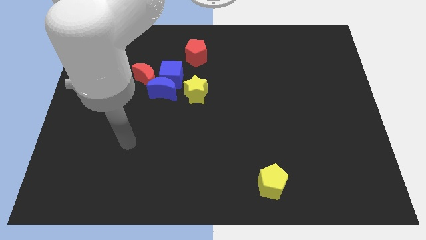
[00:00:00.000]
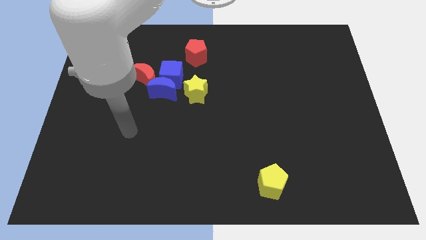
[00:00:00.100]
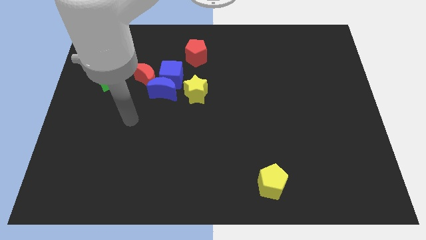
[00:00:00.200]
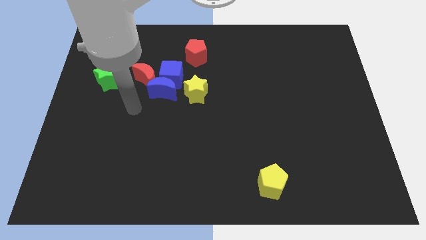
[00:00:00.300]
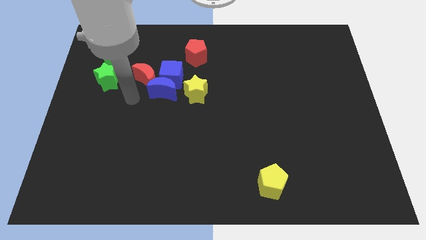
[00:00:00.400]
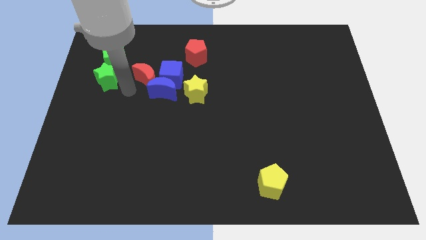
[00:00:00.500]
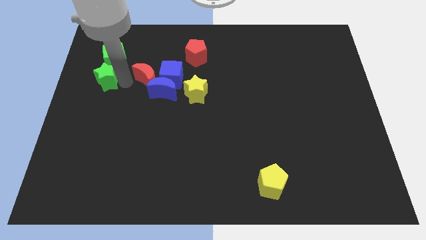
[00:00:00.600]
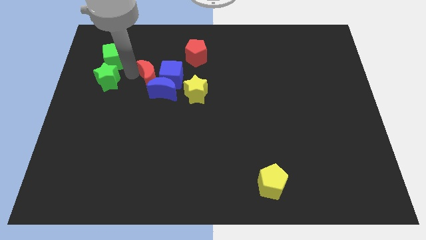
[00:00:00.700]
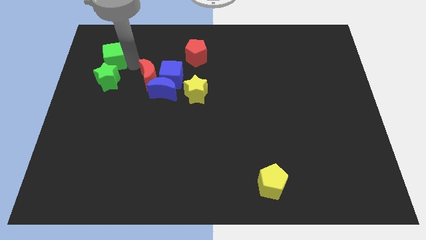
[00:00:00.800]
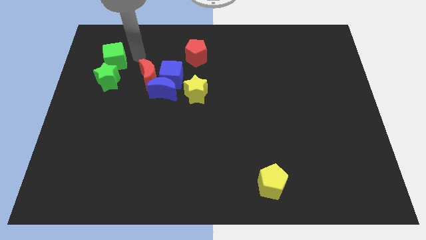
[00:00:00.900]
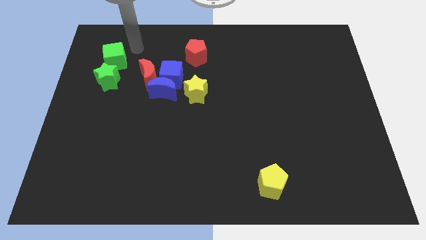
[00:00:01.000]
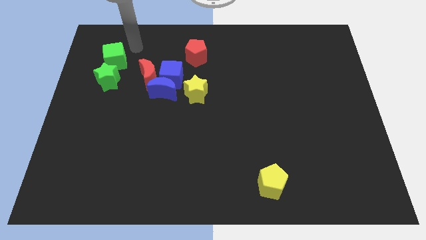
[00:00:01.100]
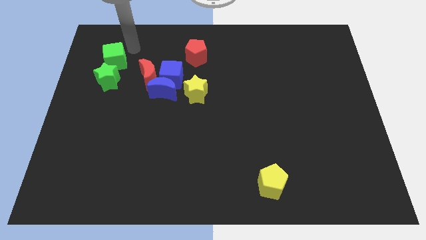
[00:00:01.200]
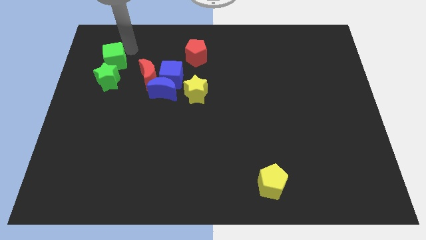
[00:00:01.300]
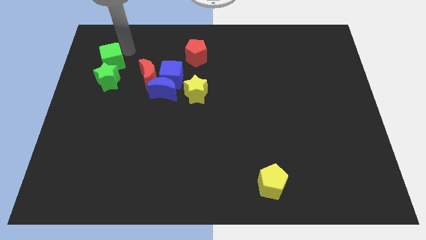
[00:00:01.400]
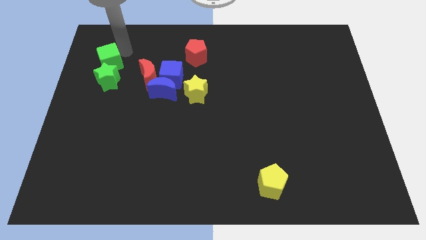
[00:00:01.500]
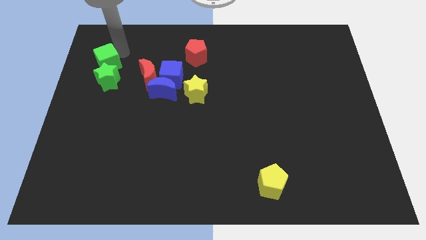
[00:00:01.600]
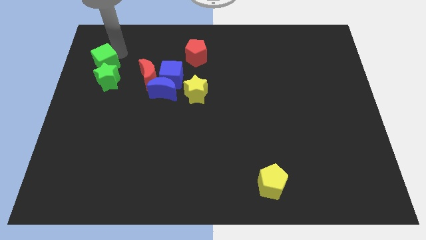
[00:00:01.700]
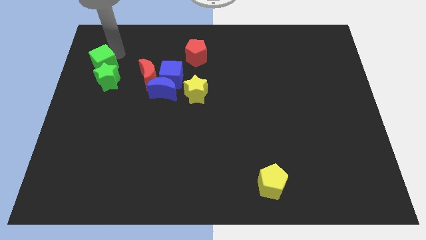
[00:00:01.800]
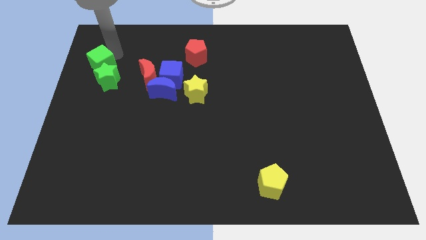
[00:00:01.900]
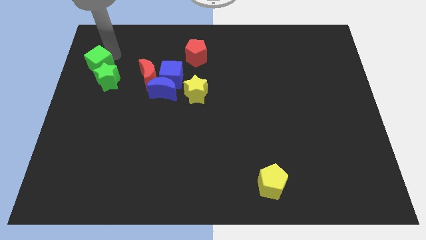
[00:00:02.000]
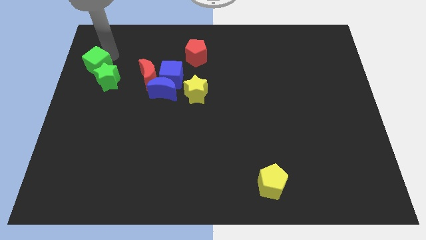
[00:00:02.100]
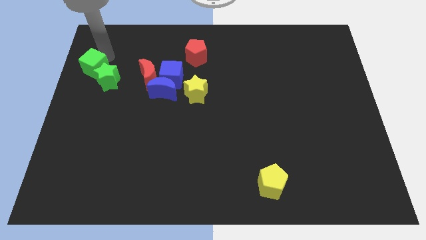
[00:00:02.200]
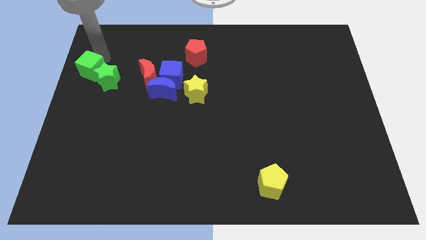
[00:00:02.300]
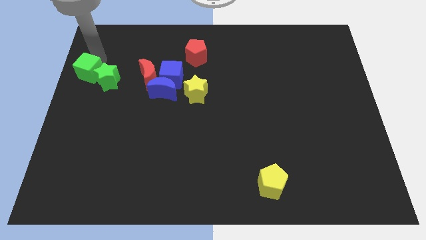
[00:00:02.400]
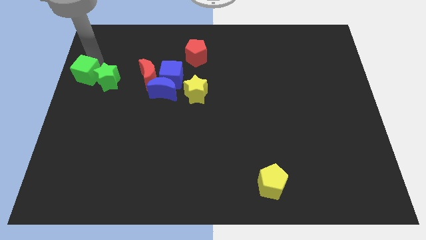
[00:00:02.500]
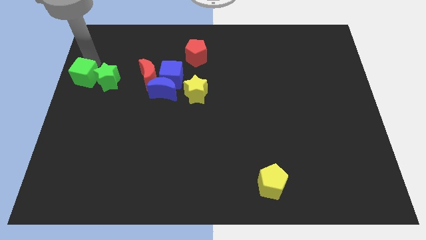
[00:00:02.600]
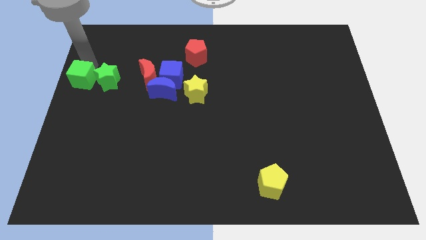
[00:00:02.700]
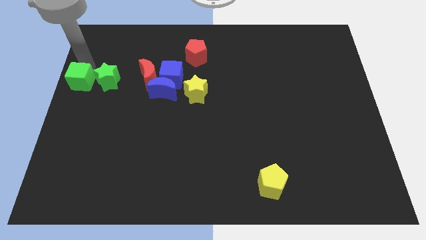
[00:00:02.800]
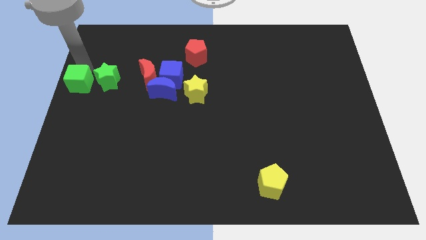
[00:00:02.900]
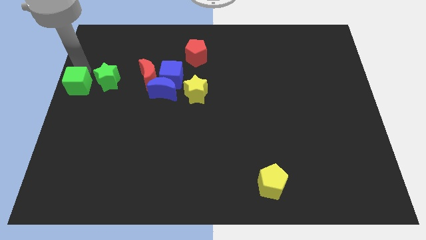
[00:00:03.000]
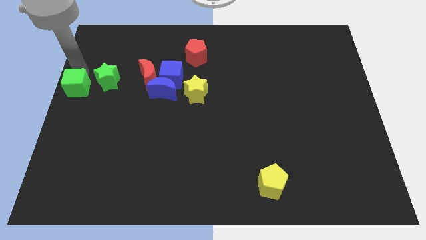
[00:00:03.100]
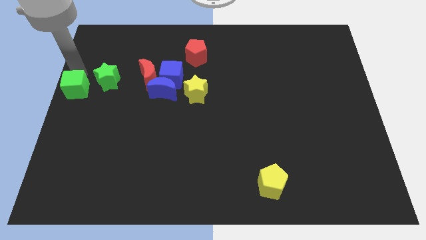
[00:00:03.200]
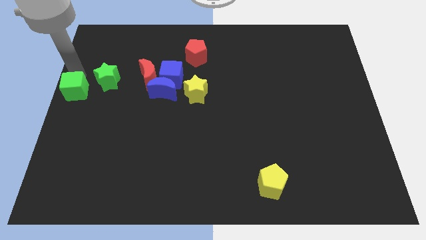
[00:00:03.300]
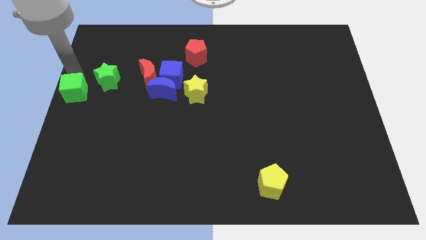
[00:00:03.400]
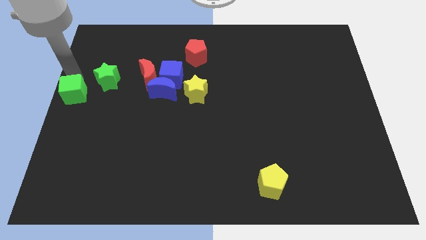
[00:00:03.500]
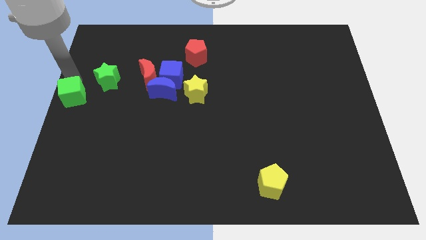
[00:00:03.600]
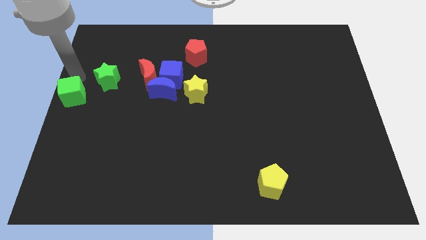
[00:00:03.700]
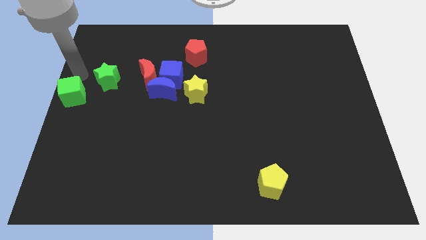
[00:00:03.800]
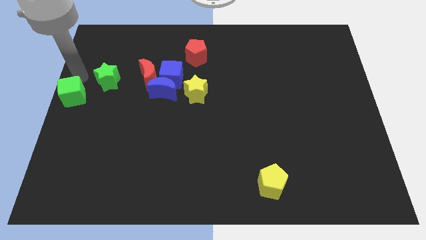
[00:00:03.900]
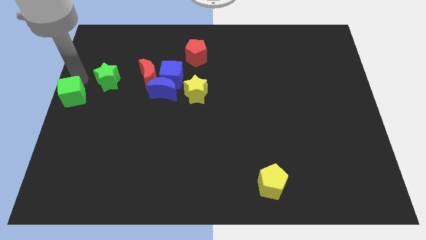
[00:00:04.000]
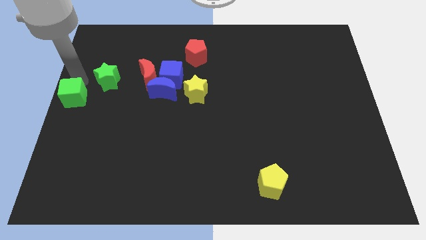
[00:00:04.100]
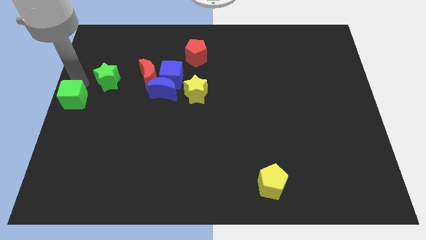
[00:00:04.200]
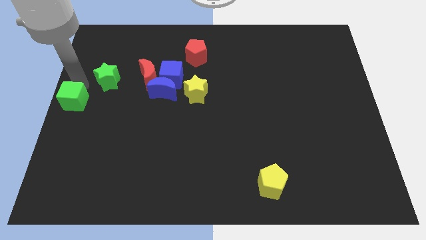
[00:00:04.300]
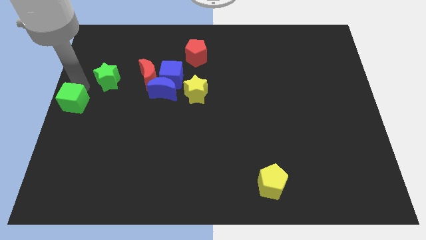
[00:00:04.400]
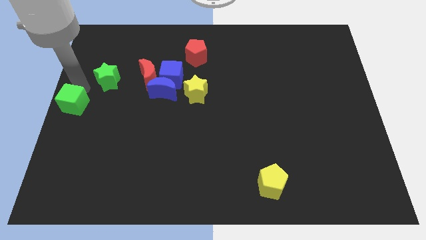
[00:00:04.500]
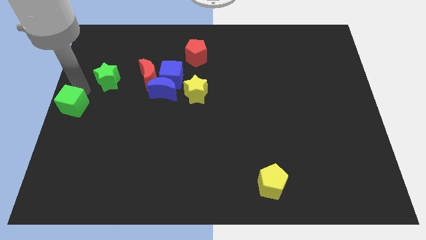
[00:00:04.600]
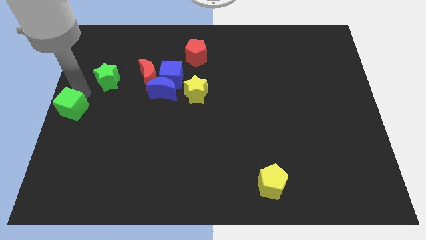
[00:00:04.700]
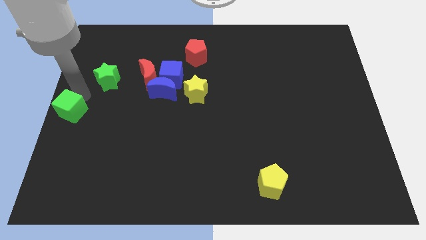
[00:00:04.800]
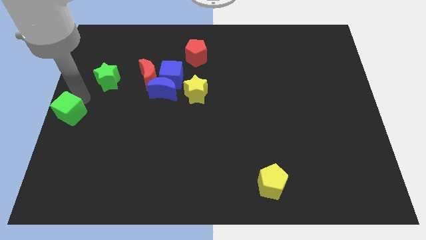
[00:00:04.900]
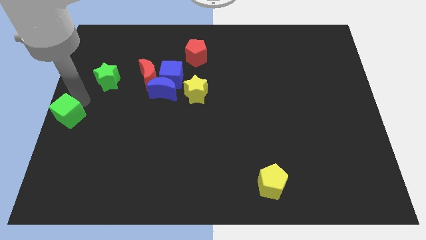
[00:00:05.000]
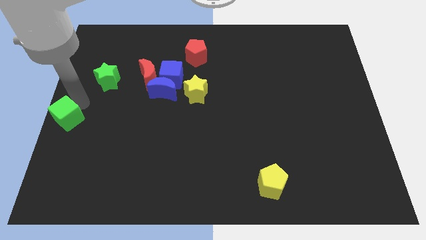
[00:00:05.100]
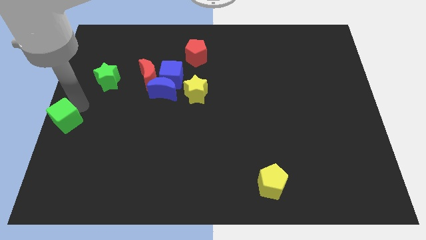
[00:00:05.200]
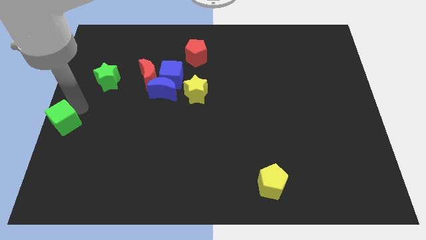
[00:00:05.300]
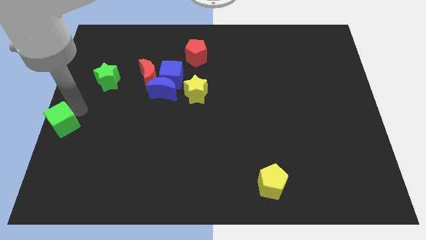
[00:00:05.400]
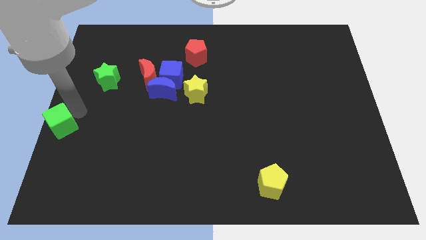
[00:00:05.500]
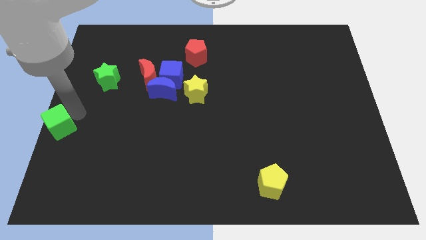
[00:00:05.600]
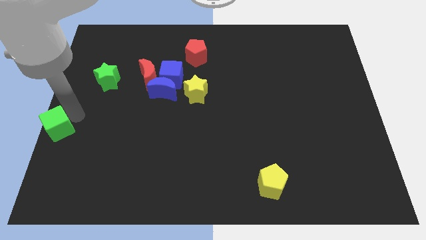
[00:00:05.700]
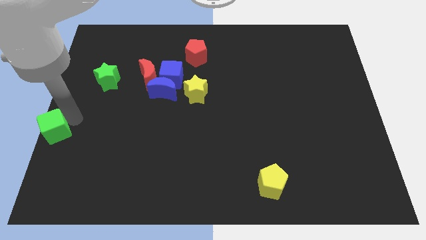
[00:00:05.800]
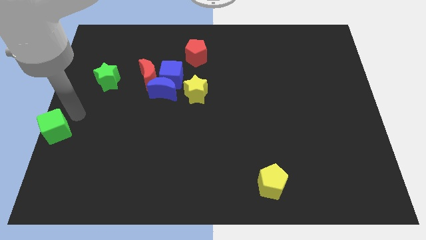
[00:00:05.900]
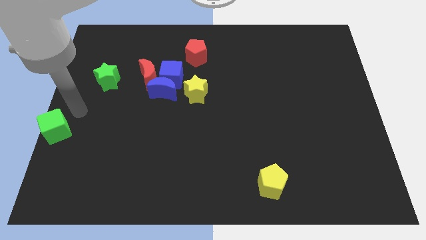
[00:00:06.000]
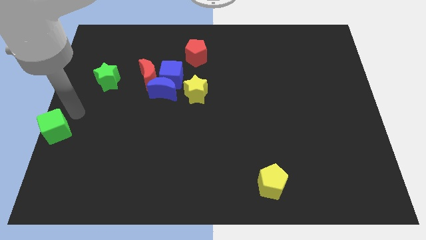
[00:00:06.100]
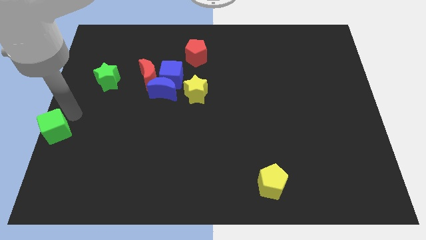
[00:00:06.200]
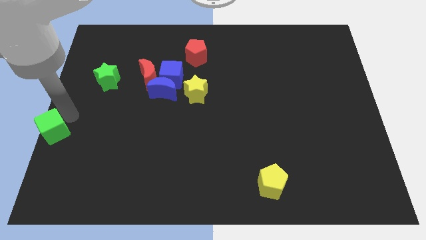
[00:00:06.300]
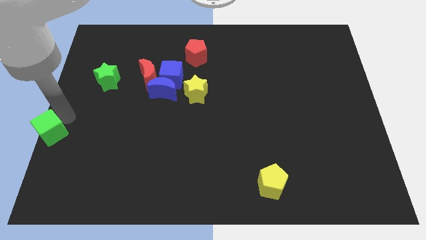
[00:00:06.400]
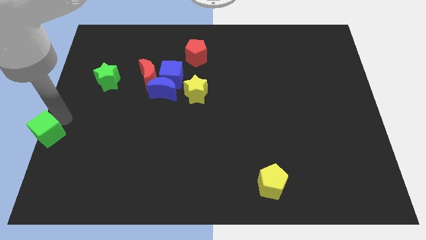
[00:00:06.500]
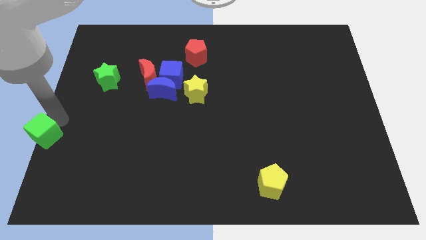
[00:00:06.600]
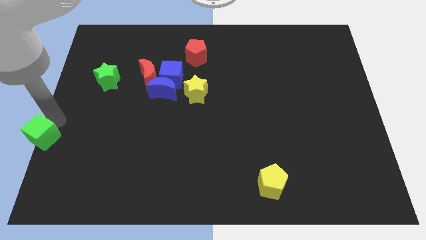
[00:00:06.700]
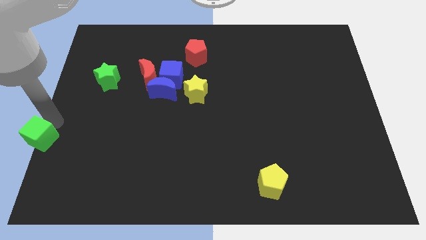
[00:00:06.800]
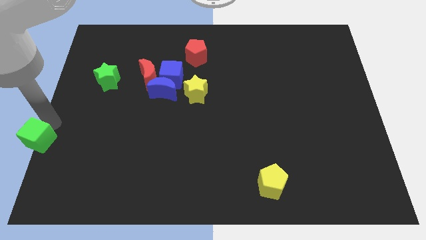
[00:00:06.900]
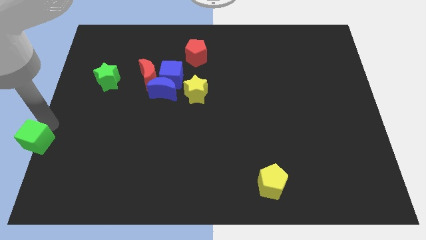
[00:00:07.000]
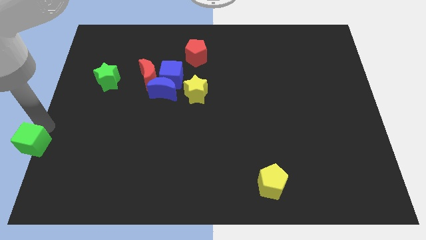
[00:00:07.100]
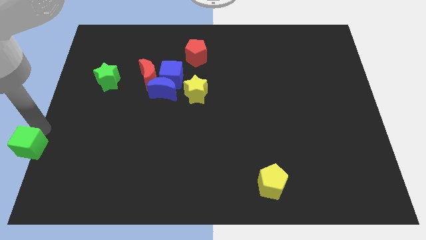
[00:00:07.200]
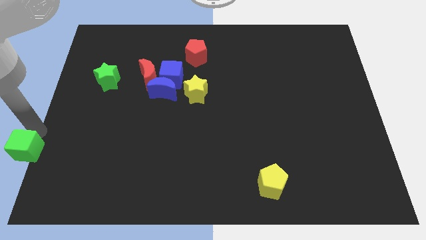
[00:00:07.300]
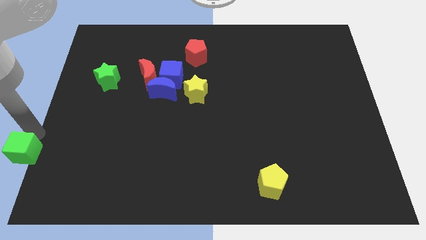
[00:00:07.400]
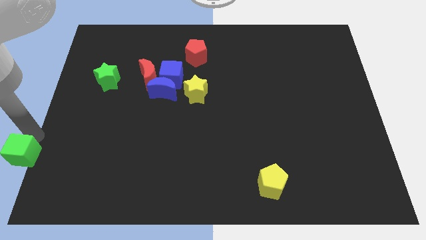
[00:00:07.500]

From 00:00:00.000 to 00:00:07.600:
move the green cube to the lower left corner

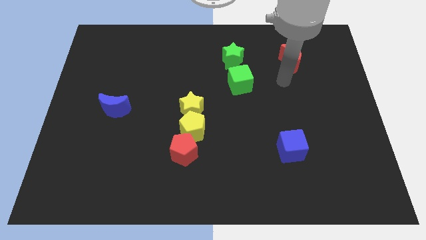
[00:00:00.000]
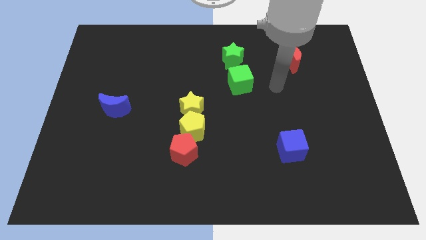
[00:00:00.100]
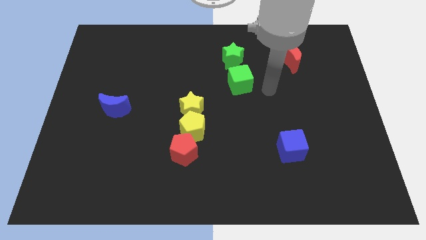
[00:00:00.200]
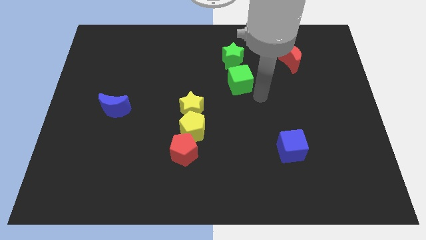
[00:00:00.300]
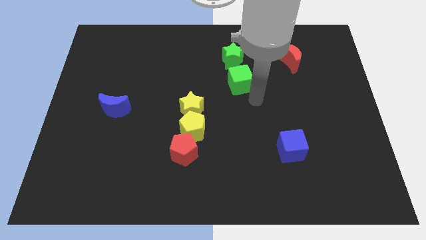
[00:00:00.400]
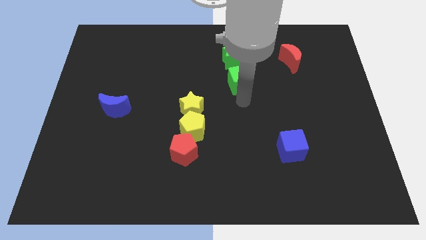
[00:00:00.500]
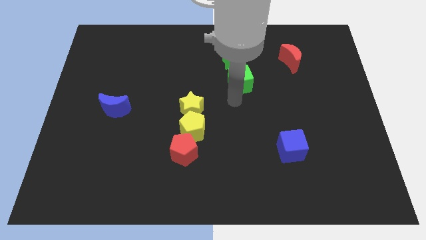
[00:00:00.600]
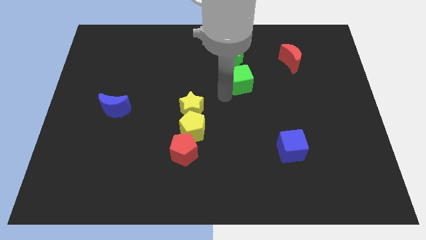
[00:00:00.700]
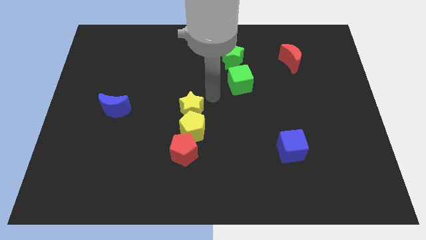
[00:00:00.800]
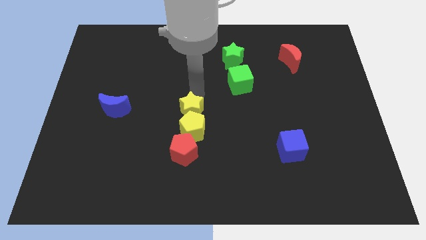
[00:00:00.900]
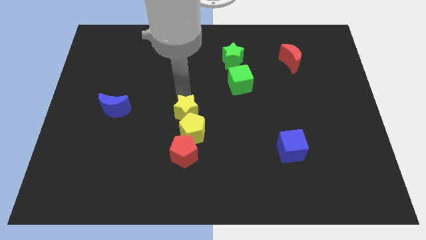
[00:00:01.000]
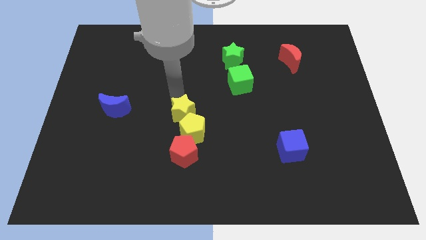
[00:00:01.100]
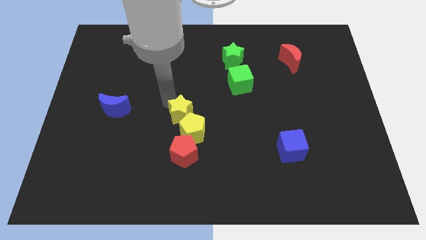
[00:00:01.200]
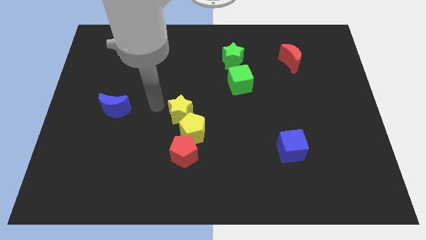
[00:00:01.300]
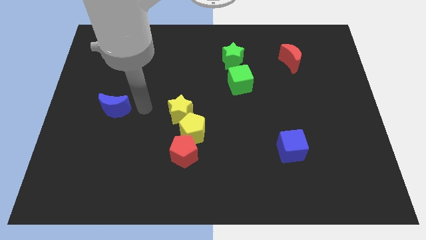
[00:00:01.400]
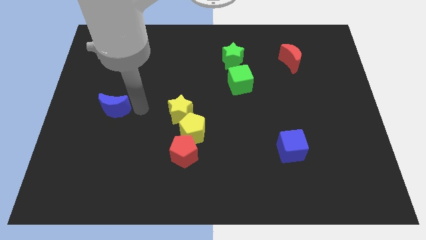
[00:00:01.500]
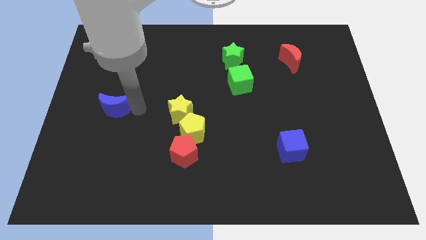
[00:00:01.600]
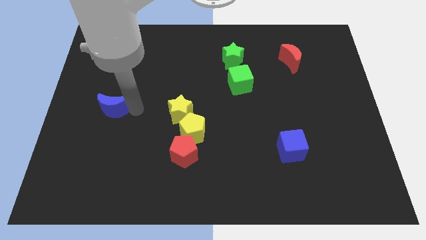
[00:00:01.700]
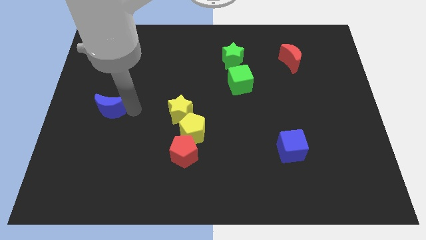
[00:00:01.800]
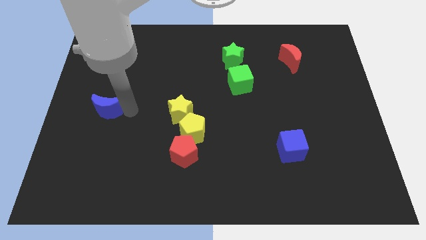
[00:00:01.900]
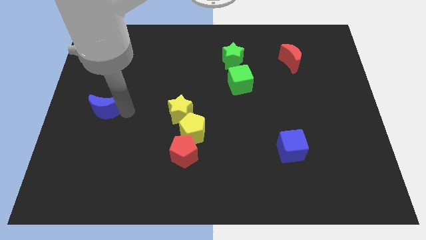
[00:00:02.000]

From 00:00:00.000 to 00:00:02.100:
push the blue moon to the center left
